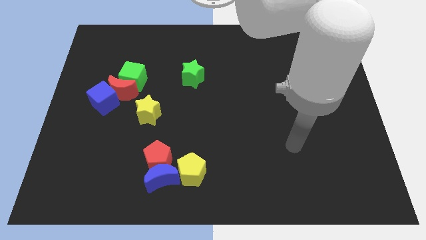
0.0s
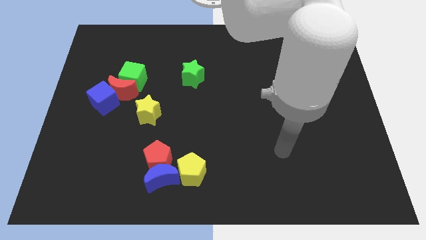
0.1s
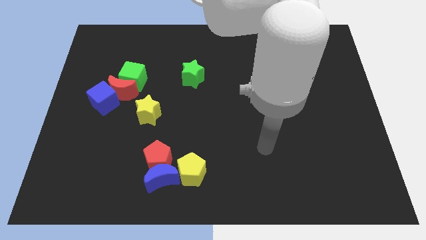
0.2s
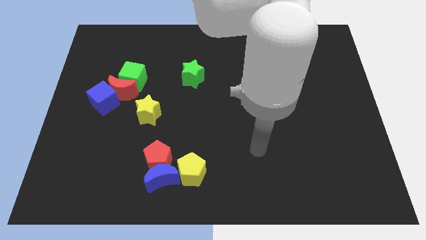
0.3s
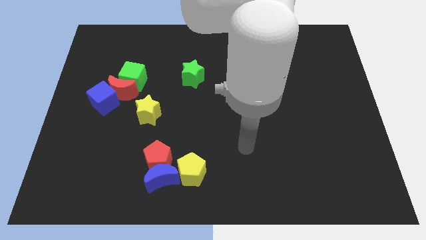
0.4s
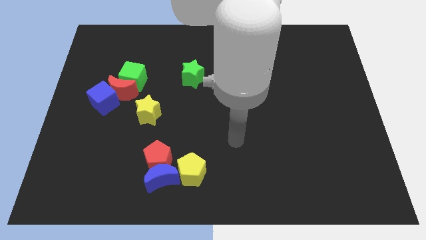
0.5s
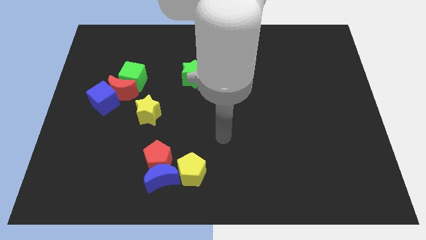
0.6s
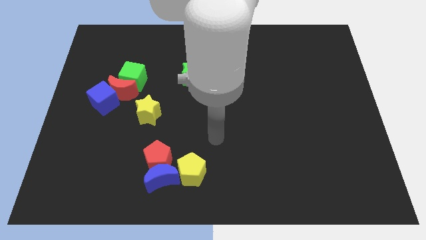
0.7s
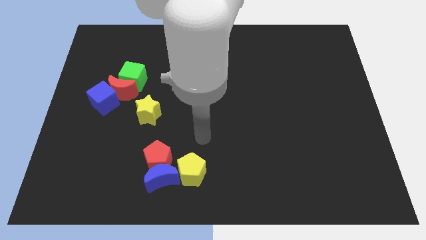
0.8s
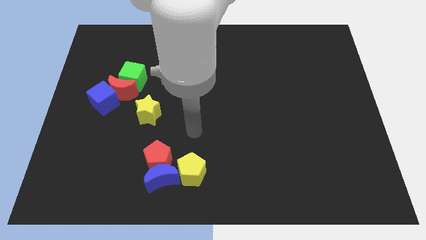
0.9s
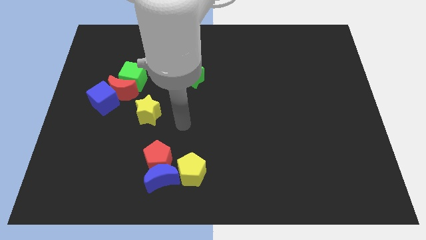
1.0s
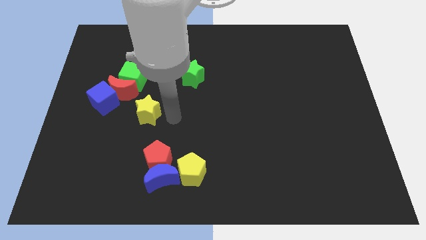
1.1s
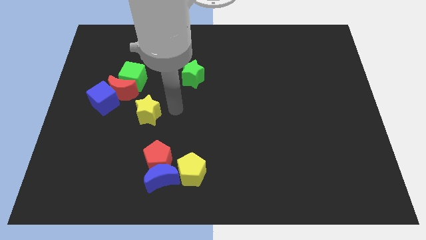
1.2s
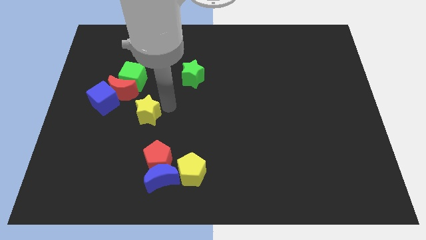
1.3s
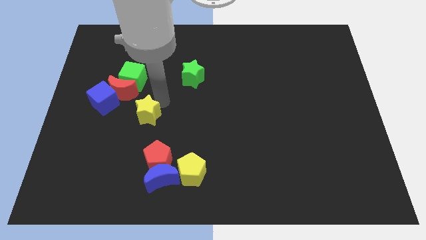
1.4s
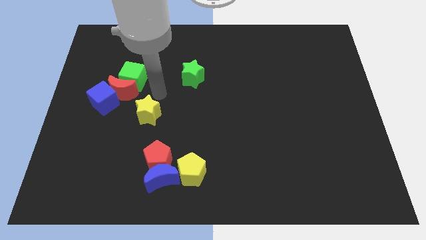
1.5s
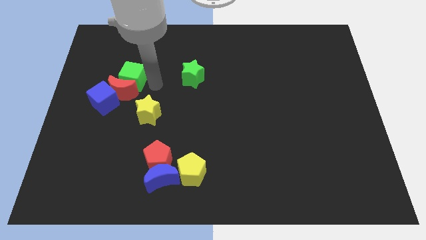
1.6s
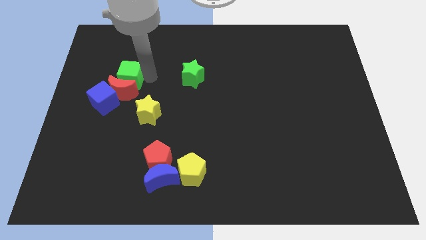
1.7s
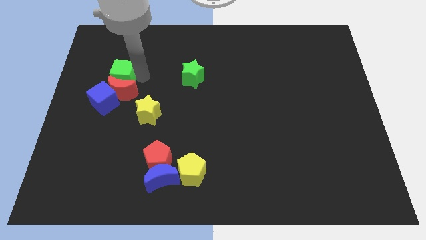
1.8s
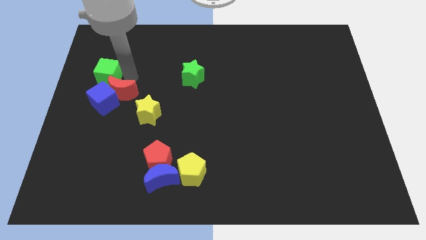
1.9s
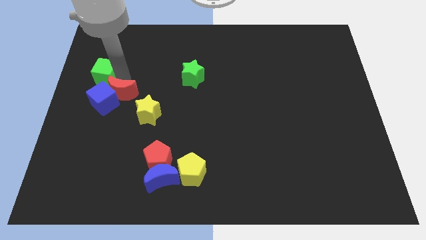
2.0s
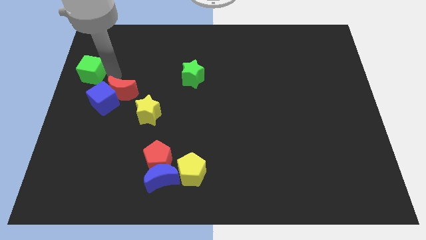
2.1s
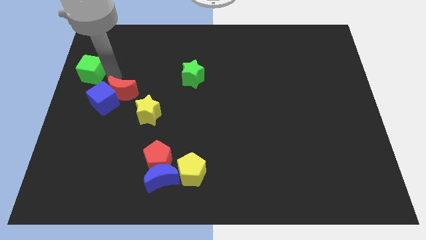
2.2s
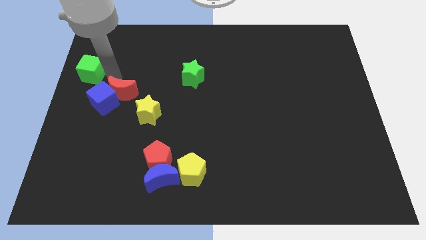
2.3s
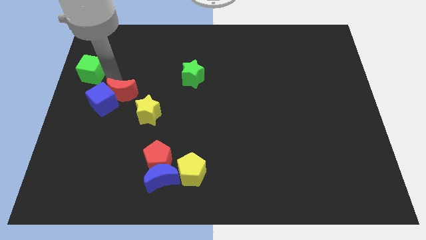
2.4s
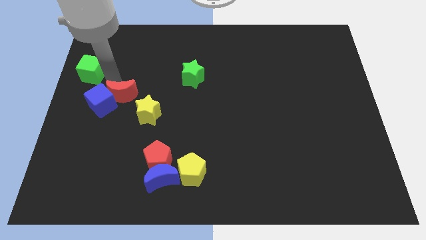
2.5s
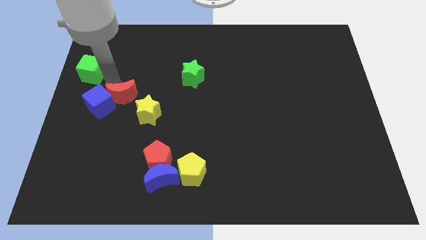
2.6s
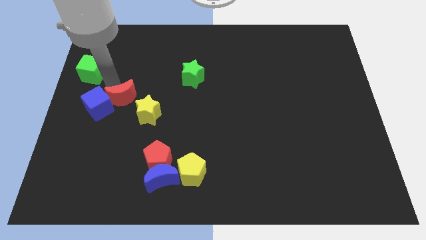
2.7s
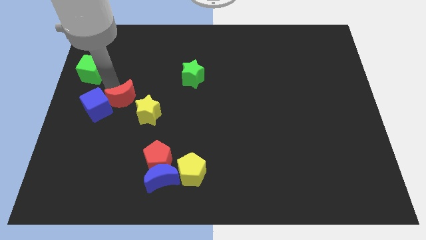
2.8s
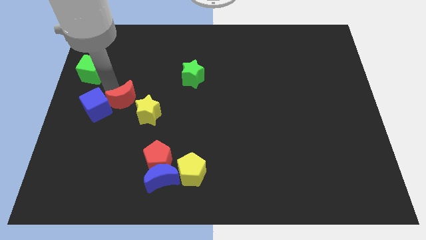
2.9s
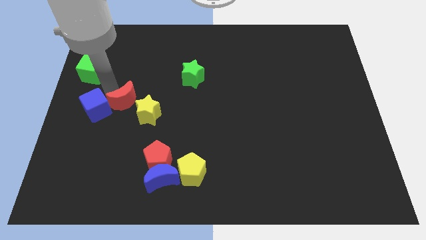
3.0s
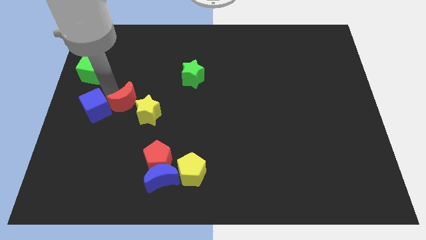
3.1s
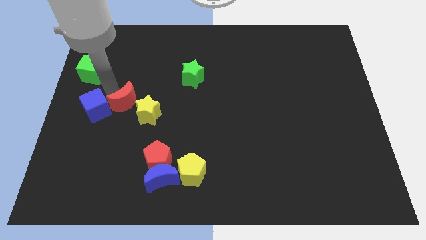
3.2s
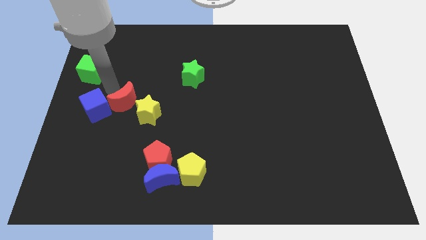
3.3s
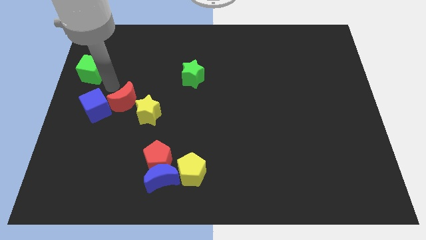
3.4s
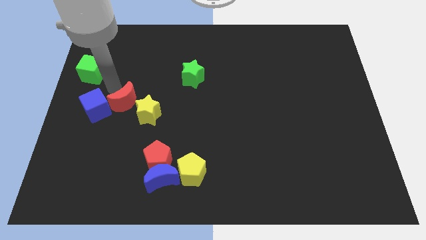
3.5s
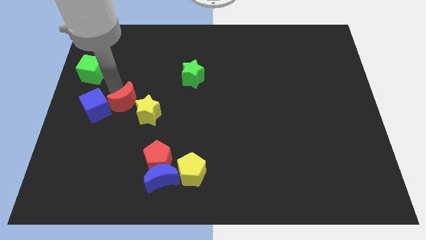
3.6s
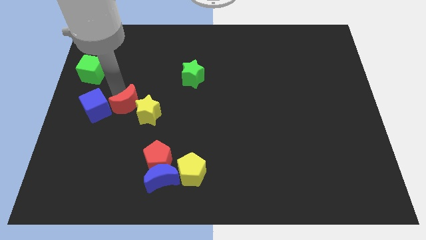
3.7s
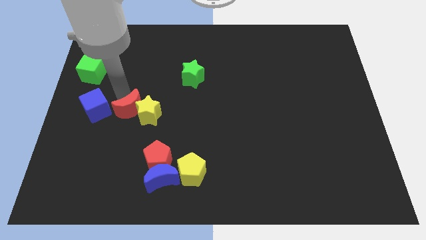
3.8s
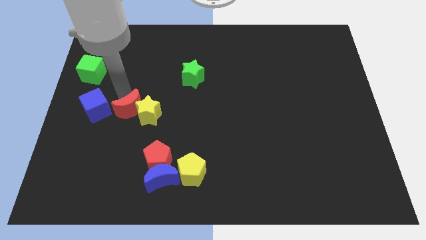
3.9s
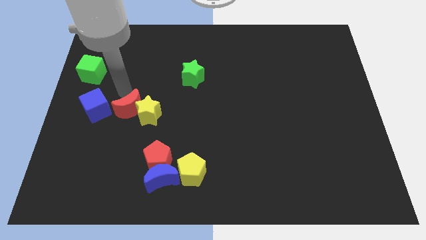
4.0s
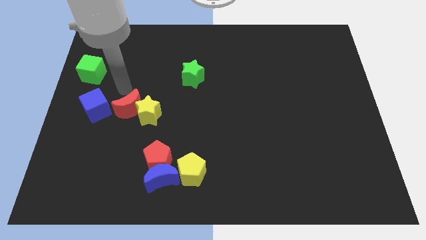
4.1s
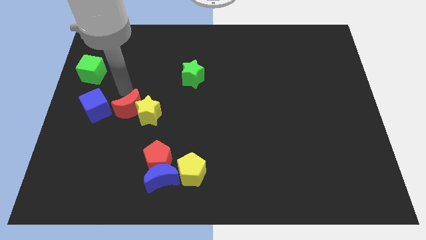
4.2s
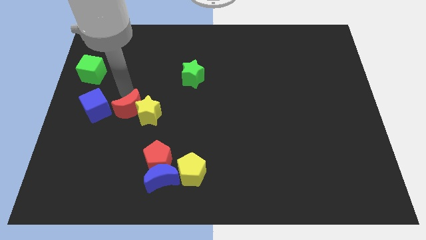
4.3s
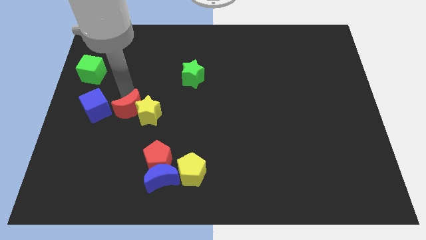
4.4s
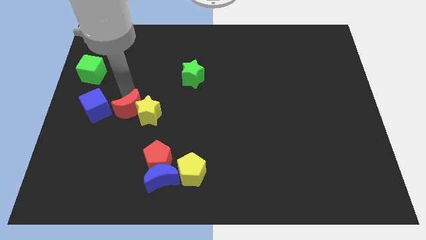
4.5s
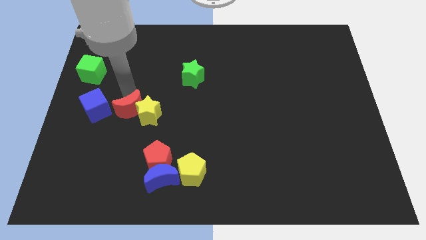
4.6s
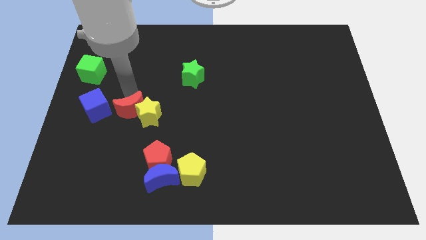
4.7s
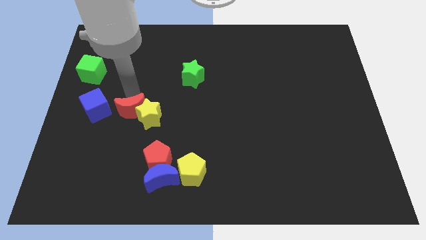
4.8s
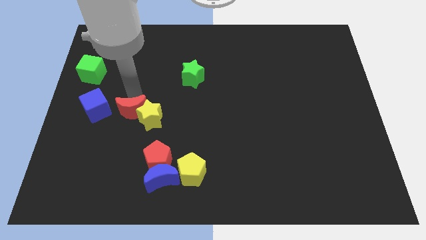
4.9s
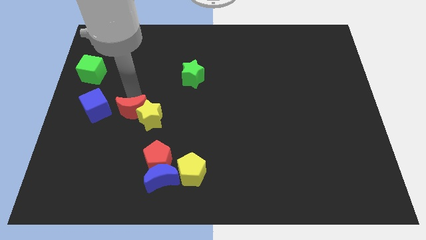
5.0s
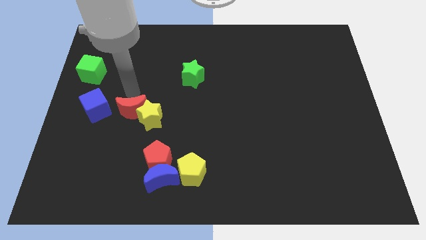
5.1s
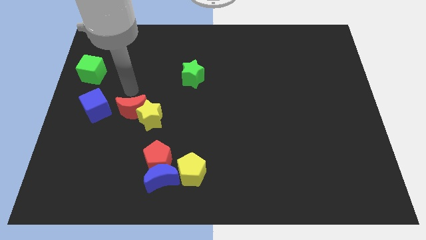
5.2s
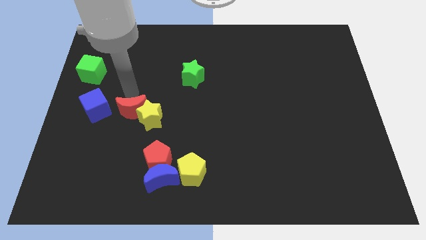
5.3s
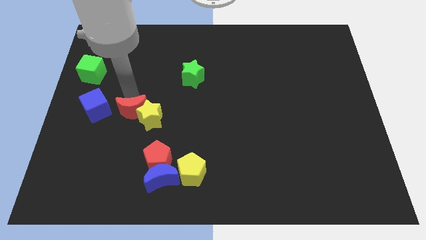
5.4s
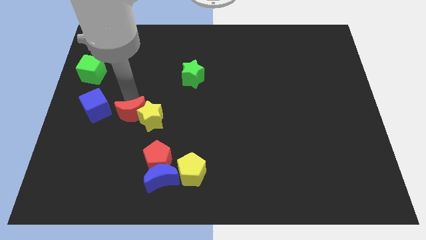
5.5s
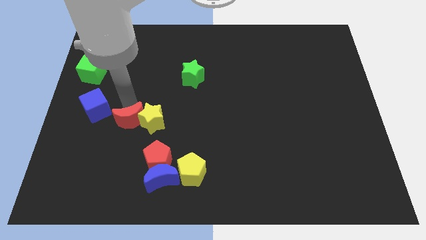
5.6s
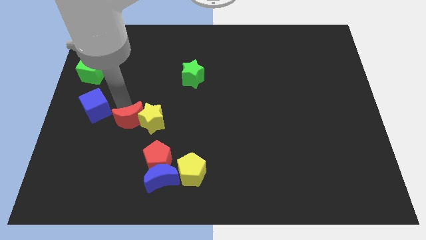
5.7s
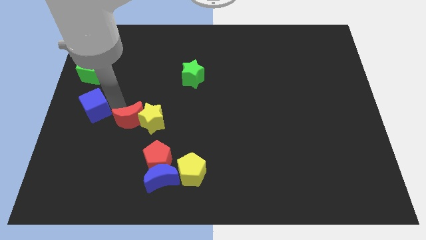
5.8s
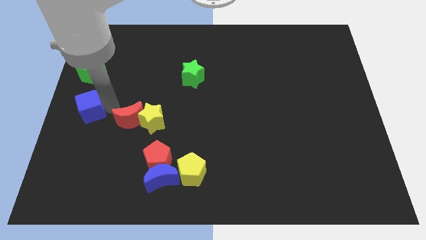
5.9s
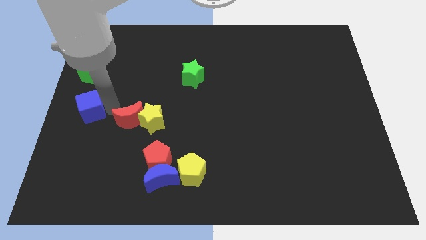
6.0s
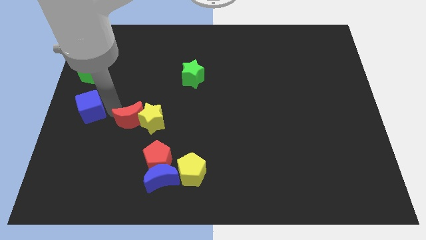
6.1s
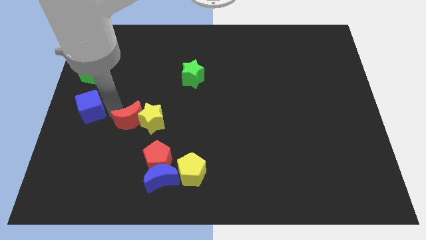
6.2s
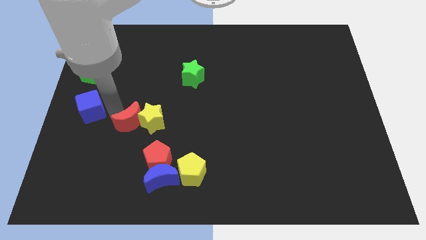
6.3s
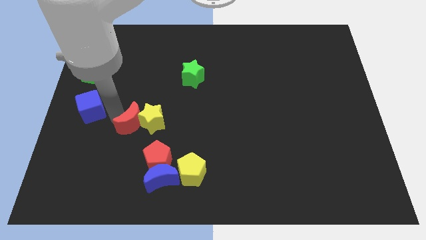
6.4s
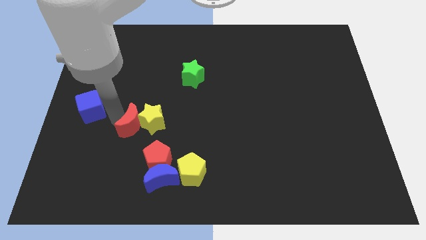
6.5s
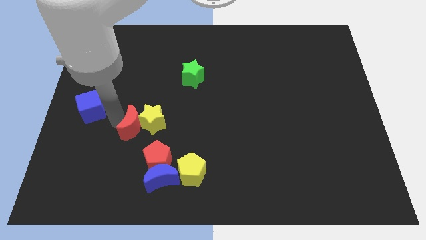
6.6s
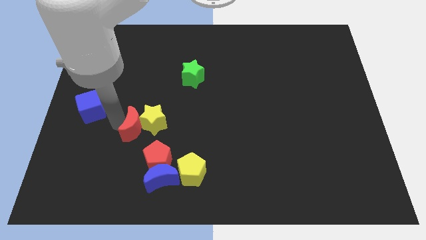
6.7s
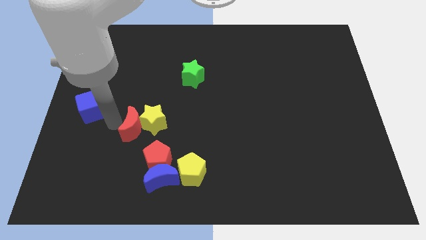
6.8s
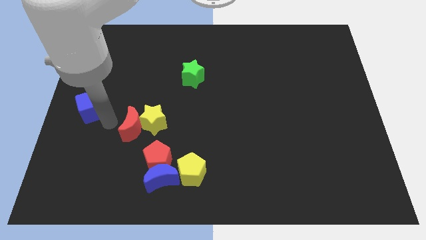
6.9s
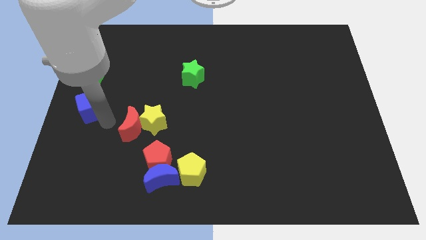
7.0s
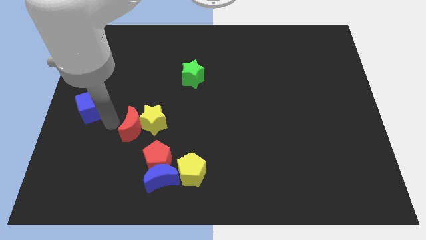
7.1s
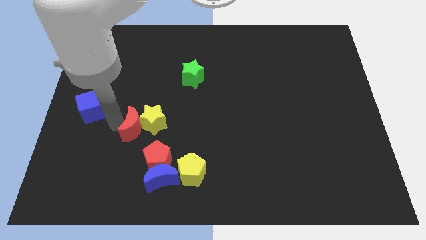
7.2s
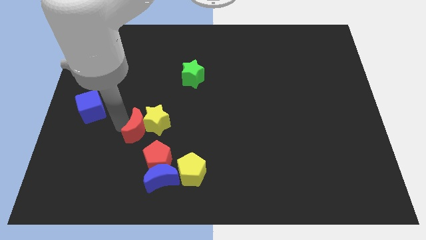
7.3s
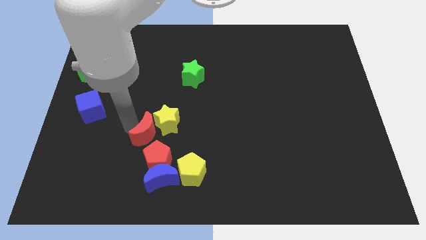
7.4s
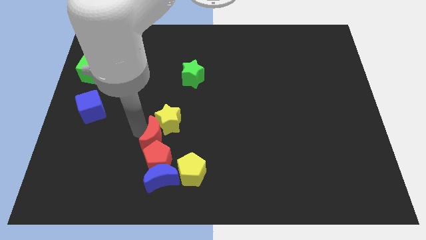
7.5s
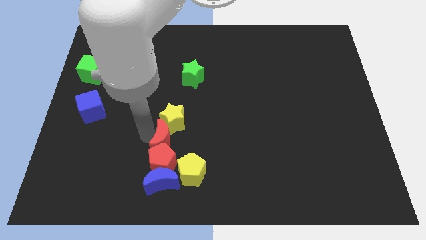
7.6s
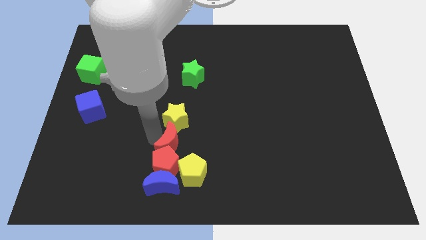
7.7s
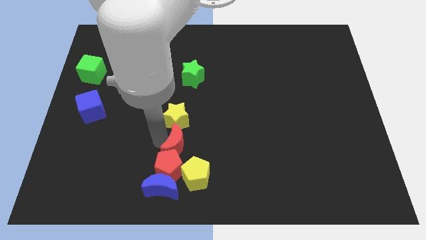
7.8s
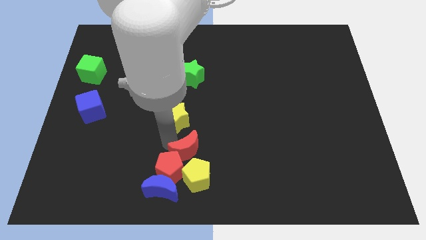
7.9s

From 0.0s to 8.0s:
push the red moon just right of the red pentagon
